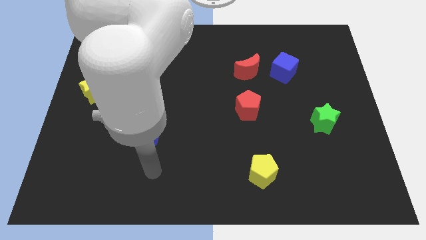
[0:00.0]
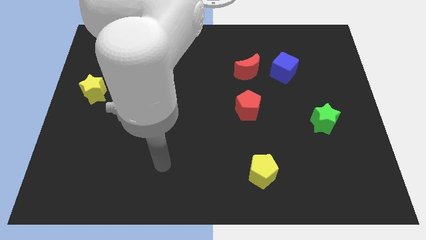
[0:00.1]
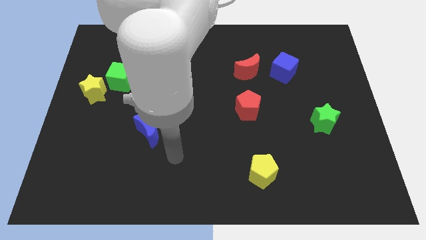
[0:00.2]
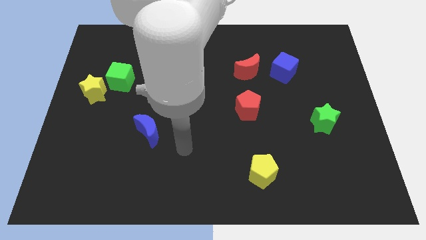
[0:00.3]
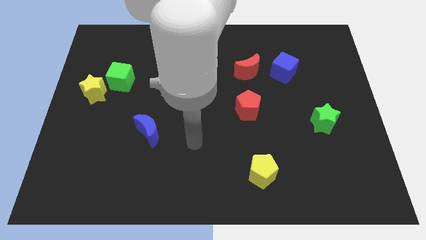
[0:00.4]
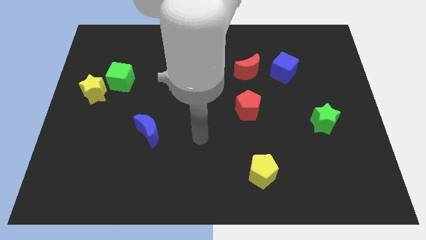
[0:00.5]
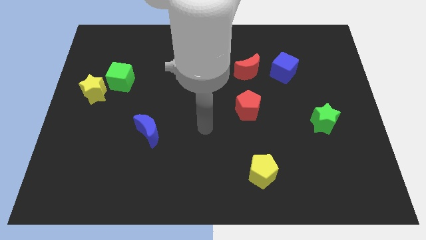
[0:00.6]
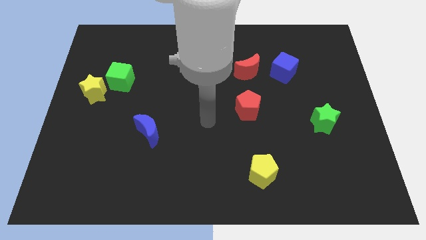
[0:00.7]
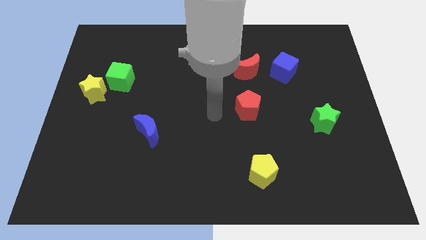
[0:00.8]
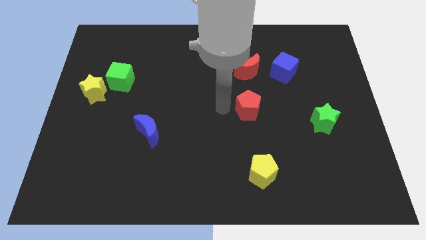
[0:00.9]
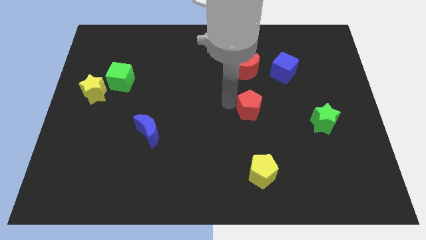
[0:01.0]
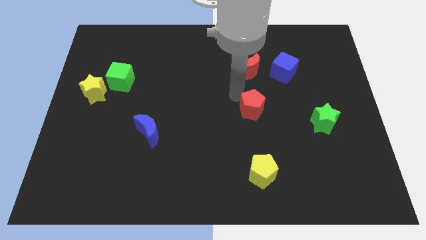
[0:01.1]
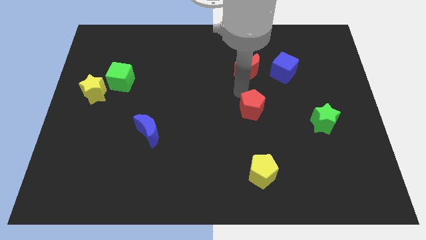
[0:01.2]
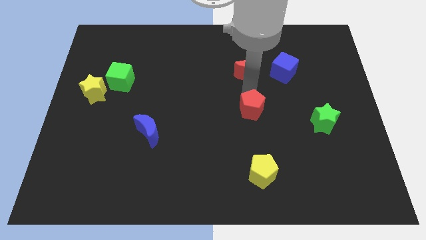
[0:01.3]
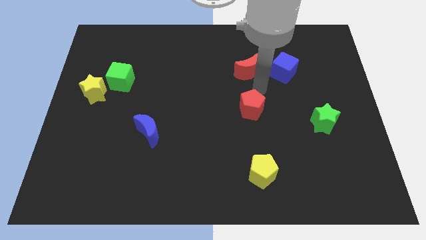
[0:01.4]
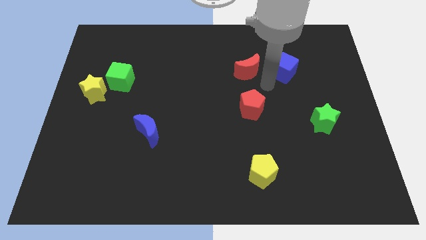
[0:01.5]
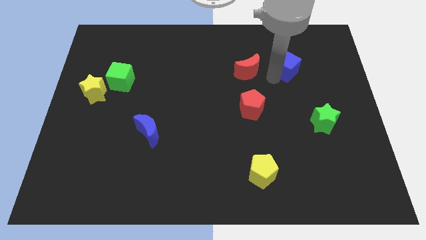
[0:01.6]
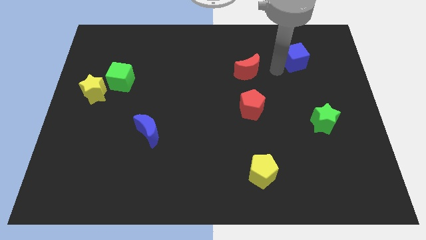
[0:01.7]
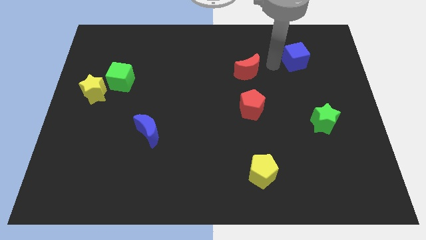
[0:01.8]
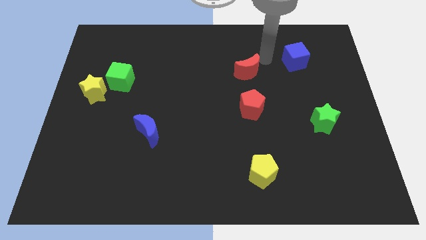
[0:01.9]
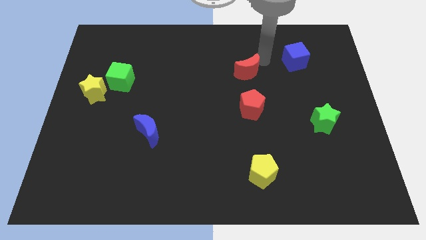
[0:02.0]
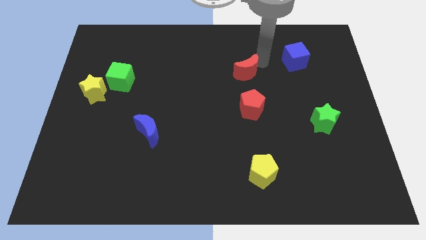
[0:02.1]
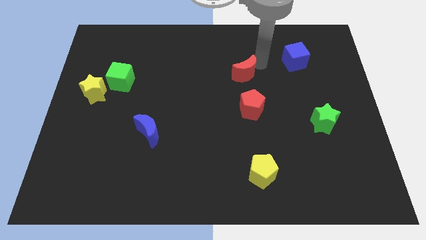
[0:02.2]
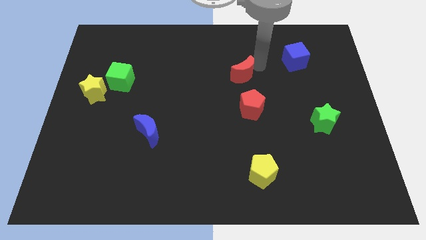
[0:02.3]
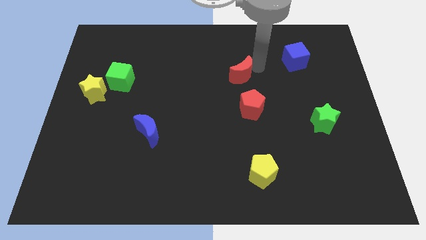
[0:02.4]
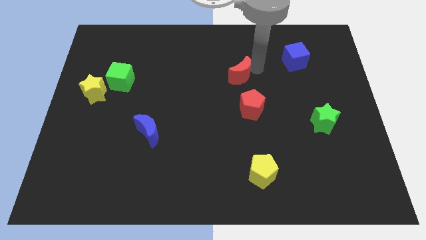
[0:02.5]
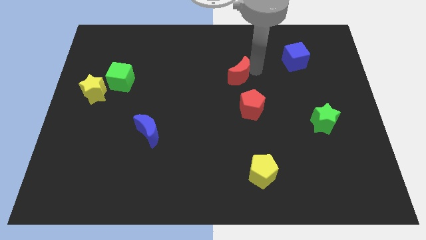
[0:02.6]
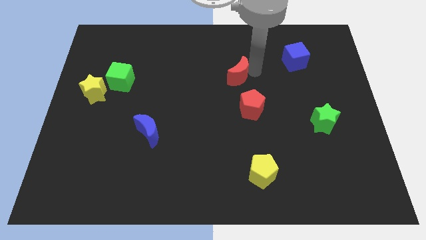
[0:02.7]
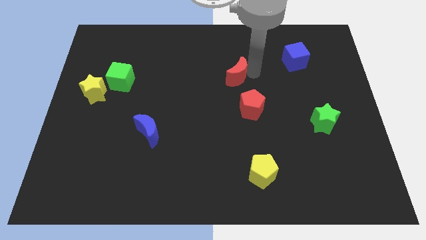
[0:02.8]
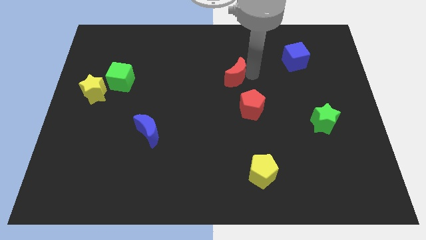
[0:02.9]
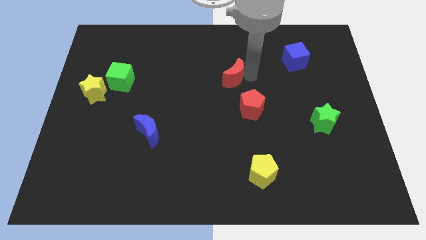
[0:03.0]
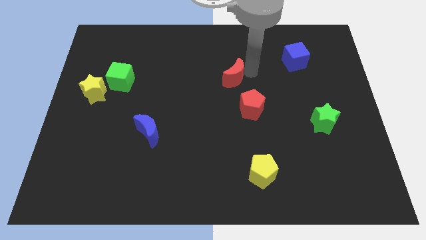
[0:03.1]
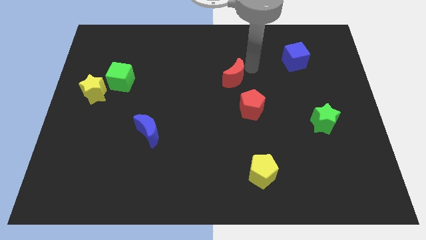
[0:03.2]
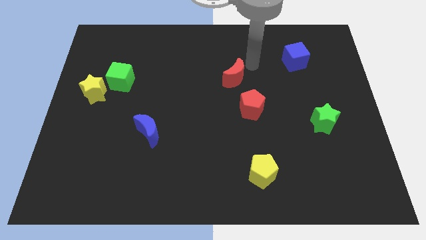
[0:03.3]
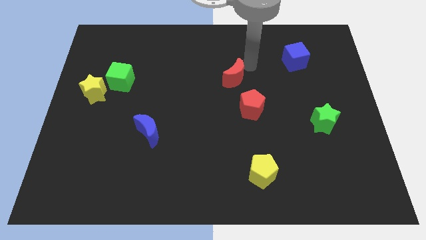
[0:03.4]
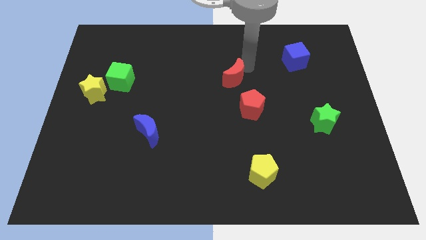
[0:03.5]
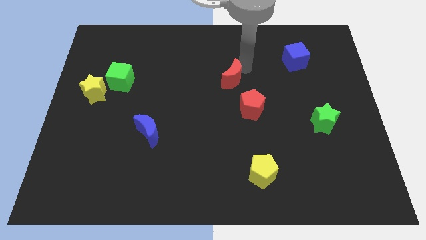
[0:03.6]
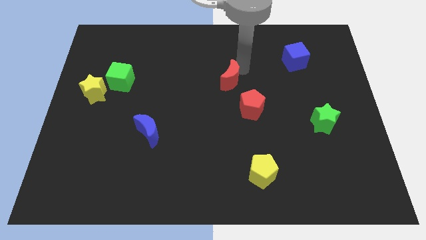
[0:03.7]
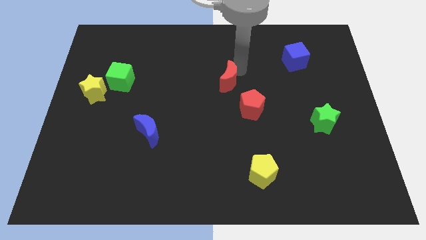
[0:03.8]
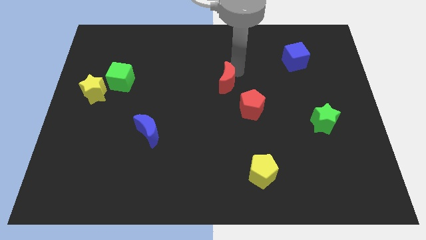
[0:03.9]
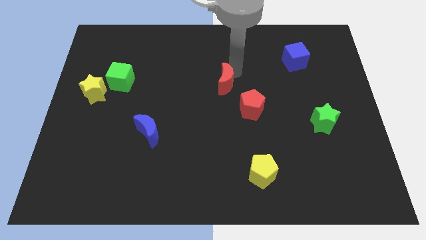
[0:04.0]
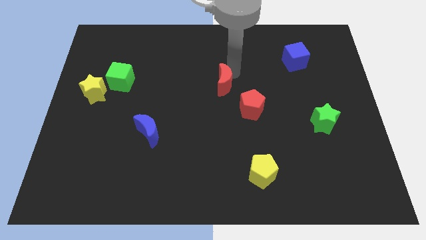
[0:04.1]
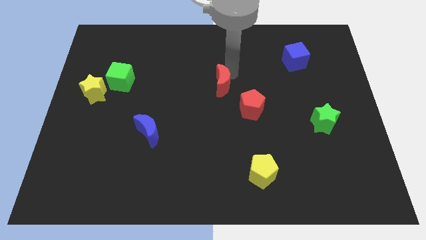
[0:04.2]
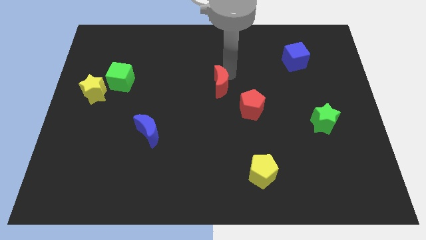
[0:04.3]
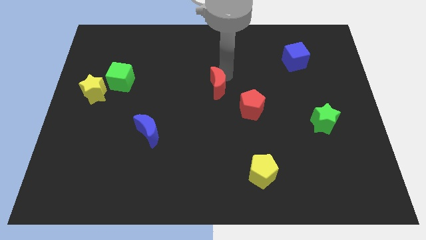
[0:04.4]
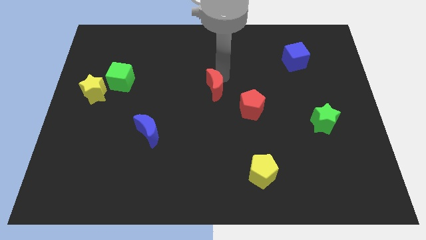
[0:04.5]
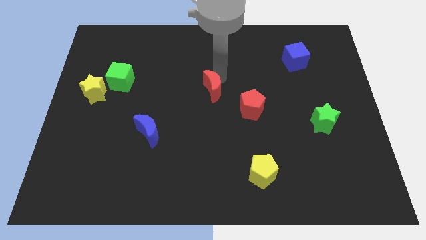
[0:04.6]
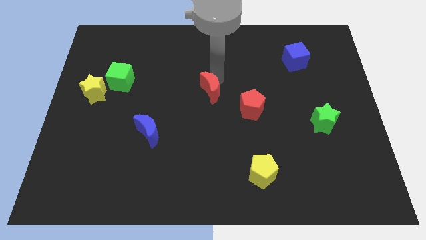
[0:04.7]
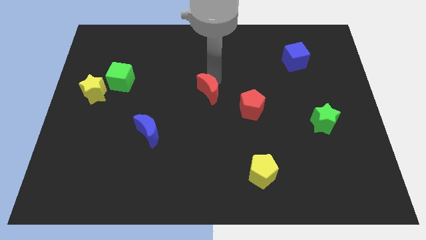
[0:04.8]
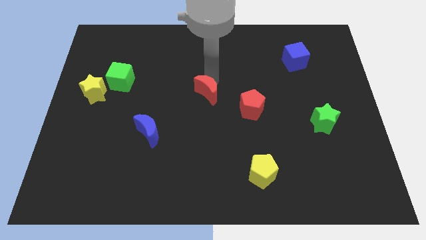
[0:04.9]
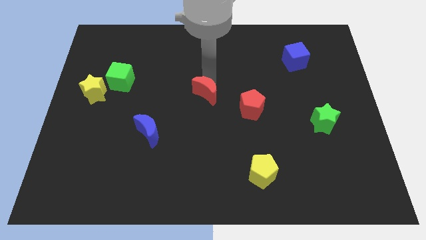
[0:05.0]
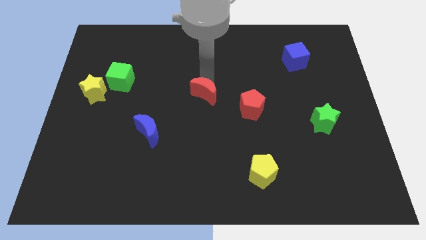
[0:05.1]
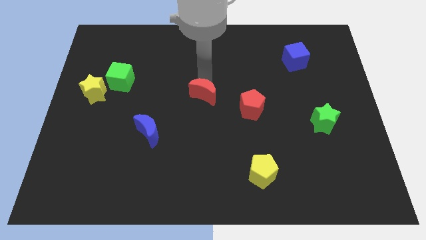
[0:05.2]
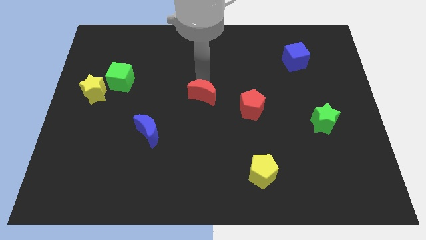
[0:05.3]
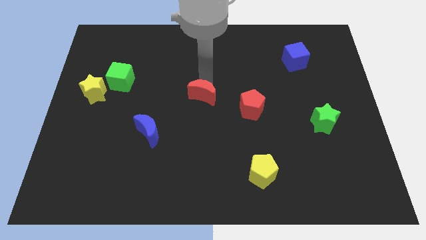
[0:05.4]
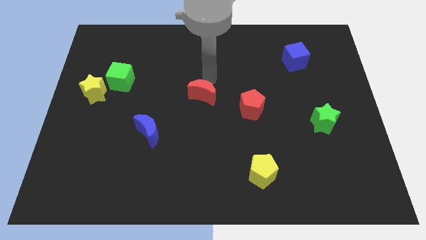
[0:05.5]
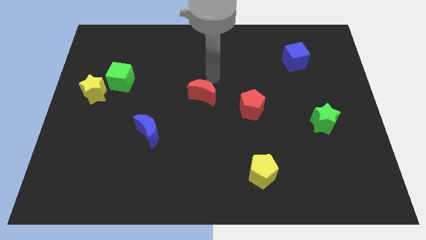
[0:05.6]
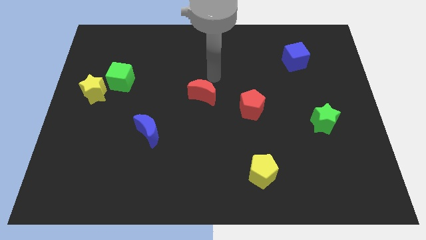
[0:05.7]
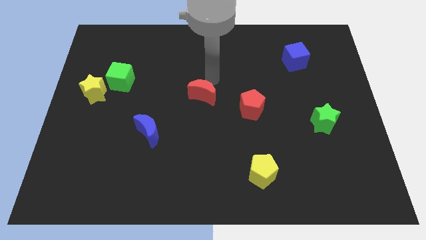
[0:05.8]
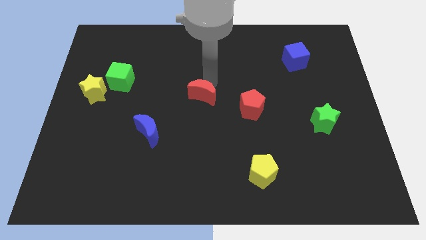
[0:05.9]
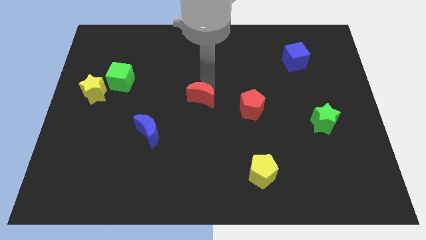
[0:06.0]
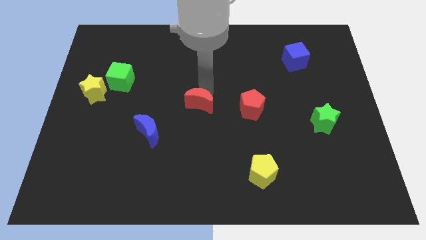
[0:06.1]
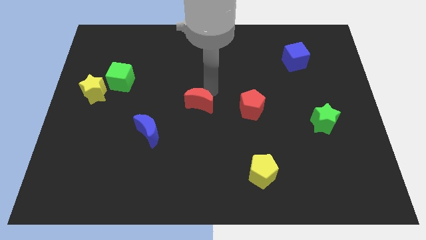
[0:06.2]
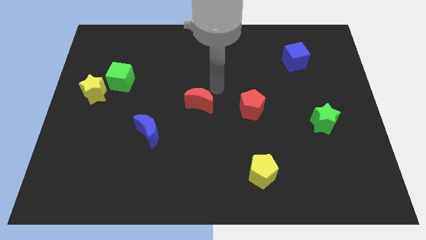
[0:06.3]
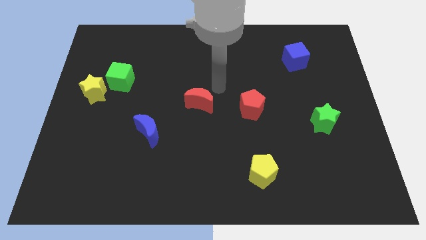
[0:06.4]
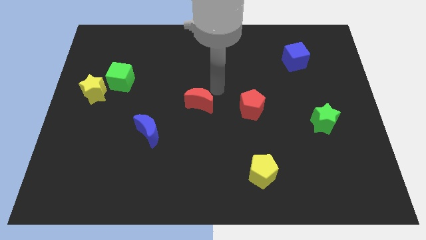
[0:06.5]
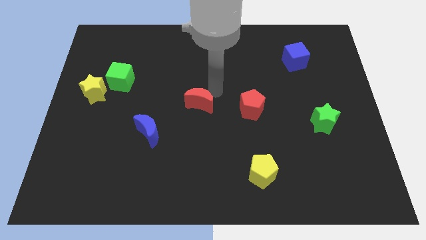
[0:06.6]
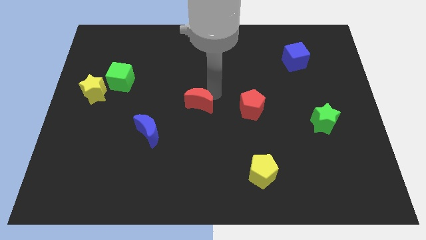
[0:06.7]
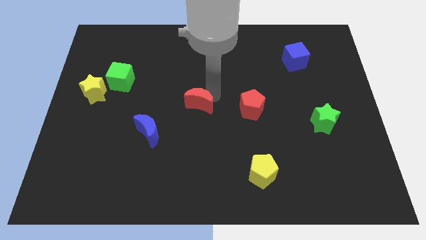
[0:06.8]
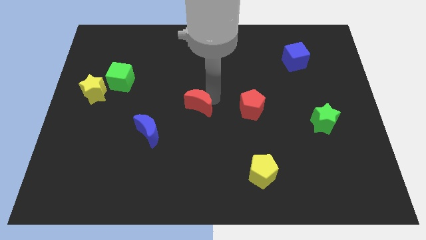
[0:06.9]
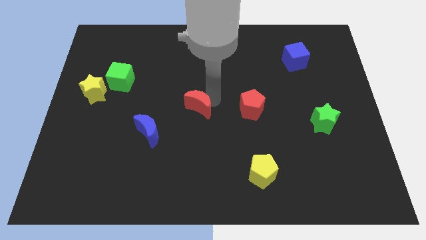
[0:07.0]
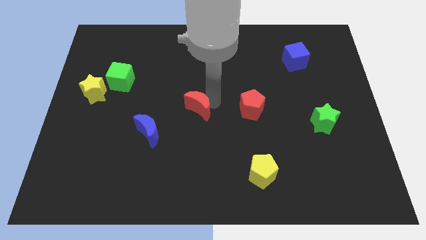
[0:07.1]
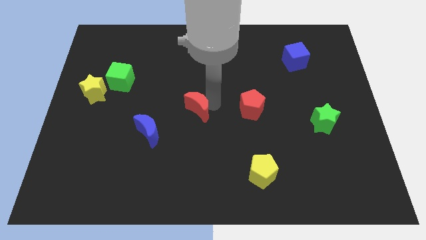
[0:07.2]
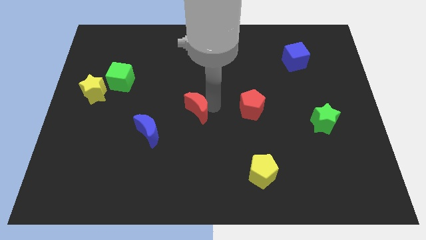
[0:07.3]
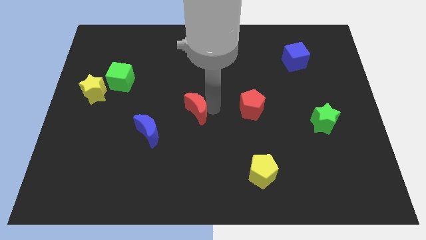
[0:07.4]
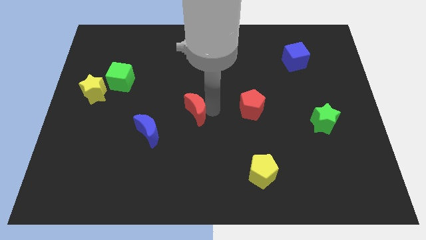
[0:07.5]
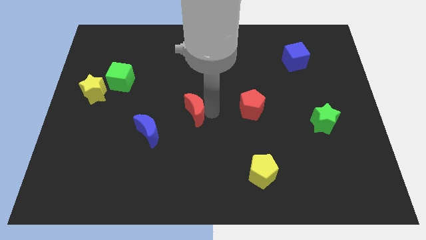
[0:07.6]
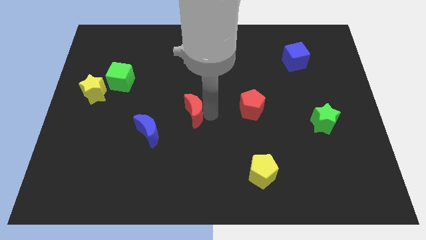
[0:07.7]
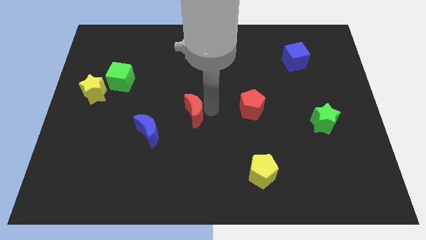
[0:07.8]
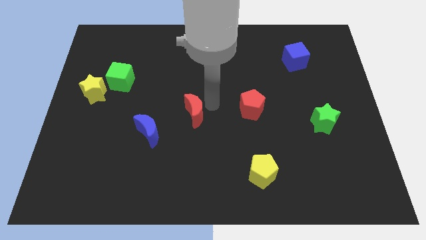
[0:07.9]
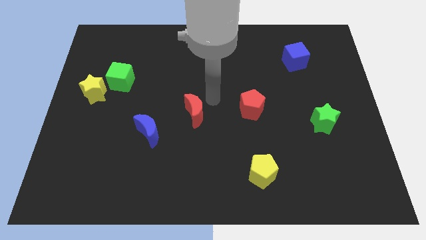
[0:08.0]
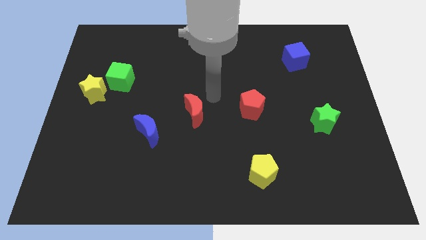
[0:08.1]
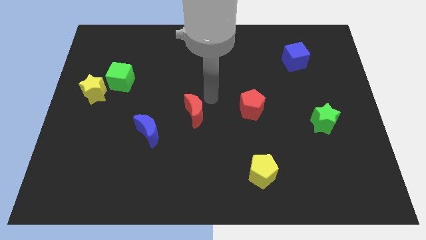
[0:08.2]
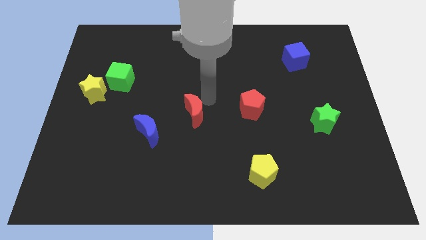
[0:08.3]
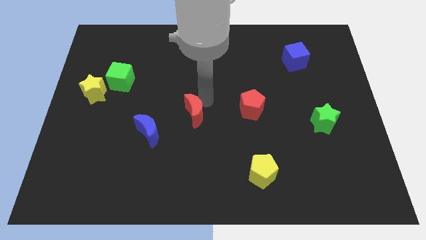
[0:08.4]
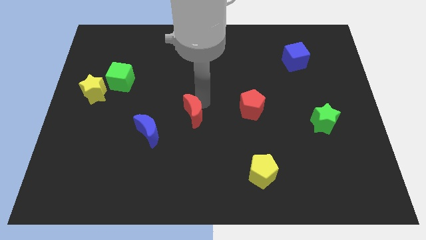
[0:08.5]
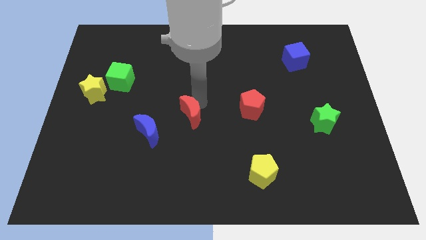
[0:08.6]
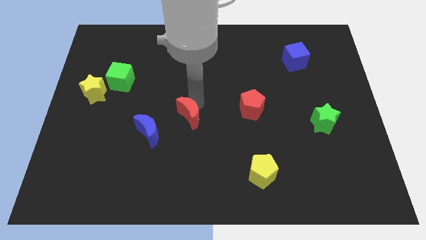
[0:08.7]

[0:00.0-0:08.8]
push the red moon diagonally downwards and to the left
